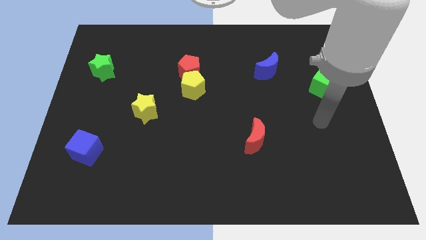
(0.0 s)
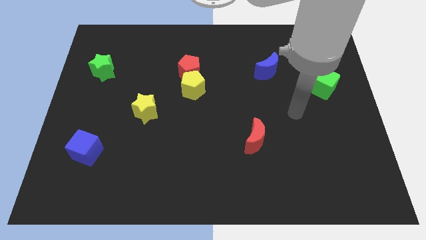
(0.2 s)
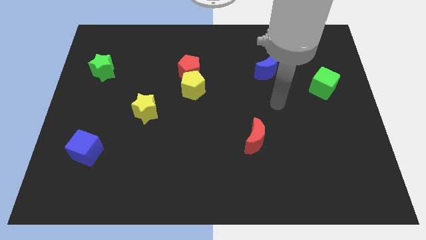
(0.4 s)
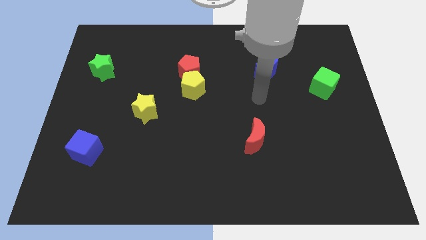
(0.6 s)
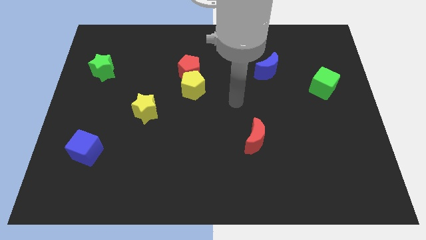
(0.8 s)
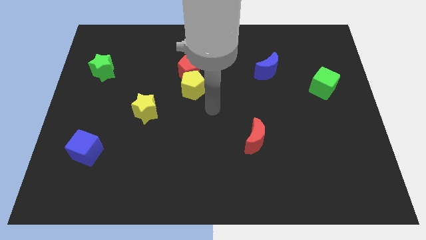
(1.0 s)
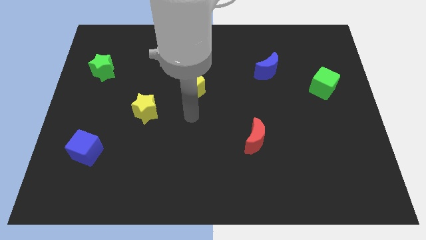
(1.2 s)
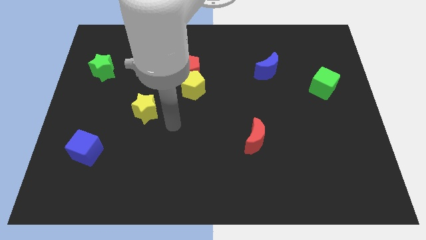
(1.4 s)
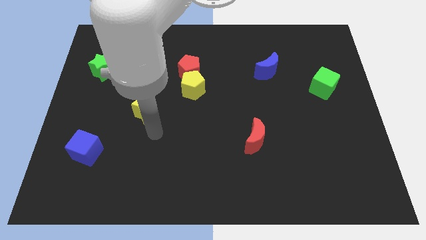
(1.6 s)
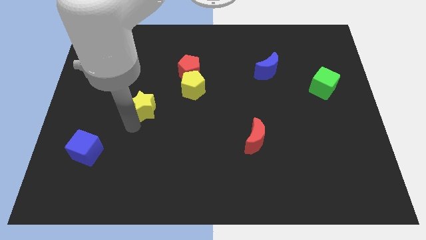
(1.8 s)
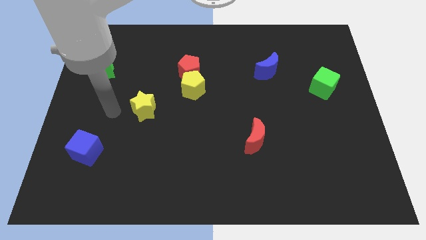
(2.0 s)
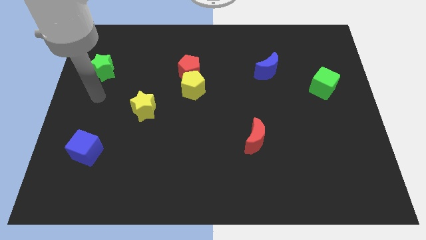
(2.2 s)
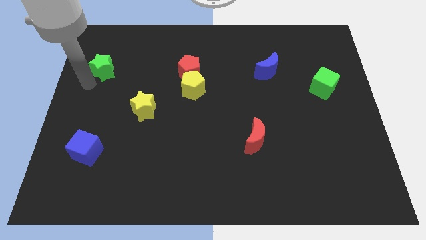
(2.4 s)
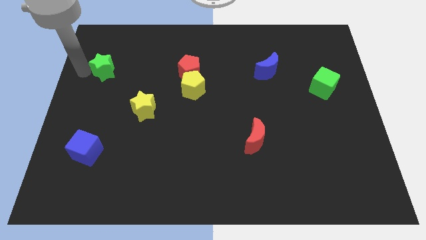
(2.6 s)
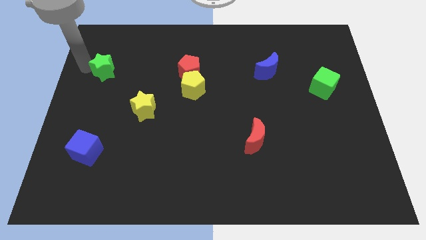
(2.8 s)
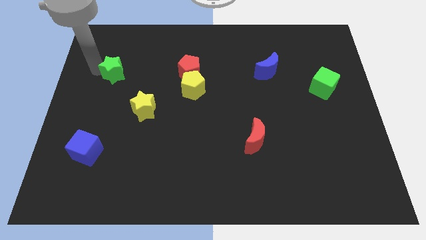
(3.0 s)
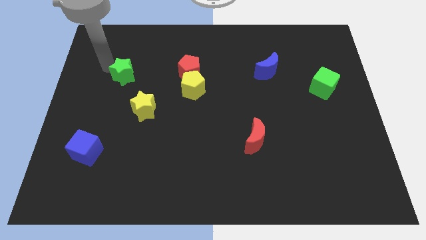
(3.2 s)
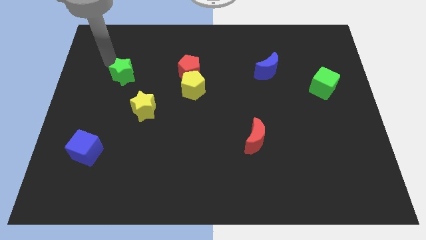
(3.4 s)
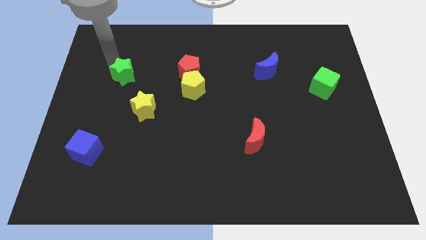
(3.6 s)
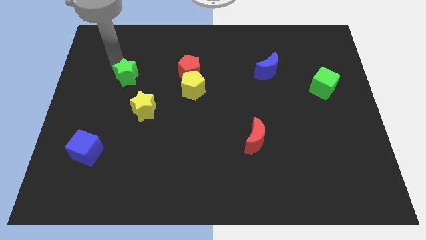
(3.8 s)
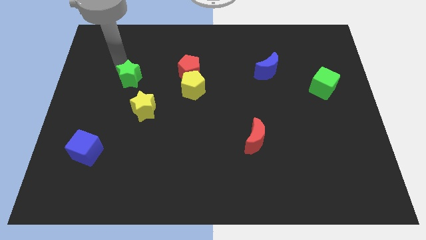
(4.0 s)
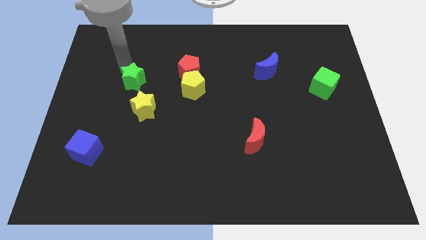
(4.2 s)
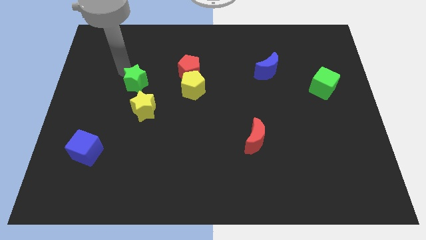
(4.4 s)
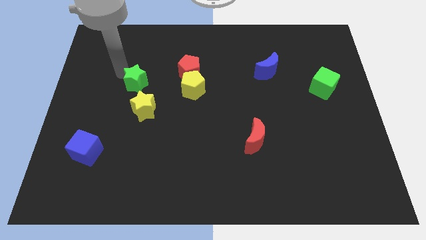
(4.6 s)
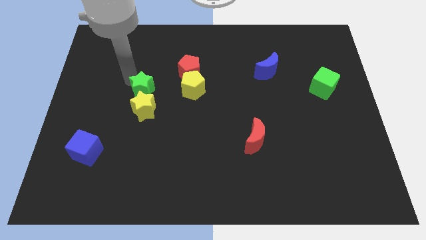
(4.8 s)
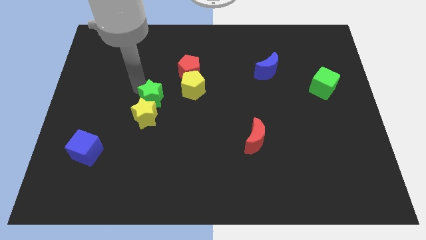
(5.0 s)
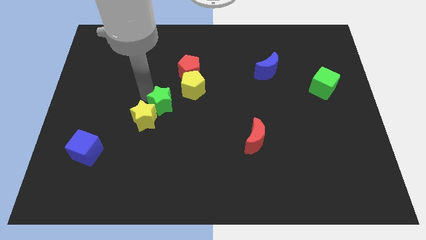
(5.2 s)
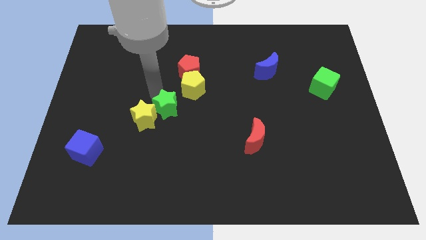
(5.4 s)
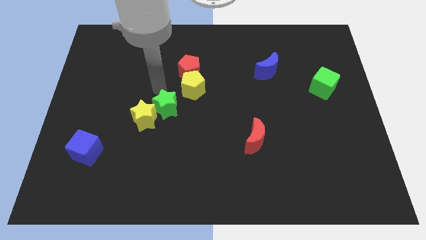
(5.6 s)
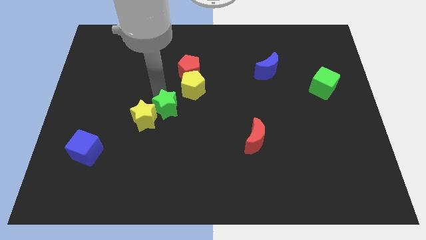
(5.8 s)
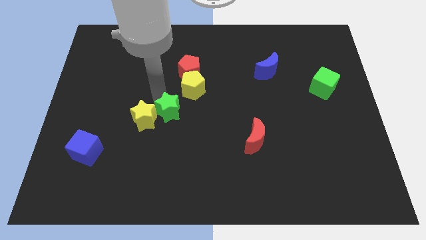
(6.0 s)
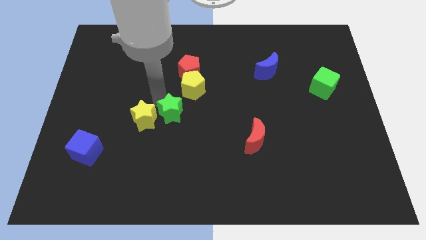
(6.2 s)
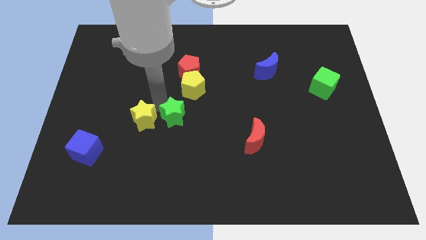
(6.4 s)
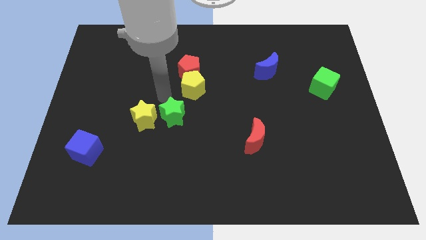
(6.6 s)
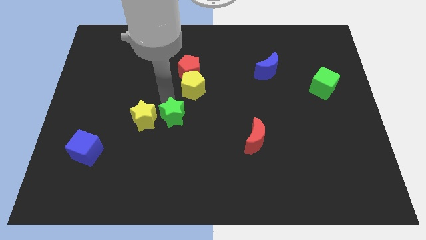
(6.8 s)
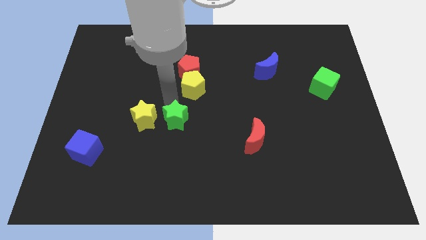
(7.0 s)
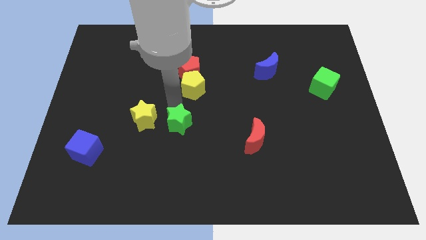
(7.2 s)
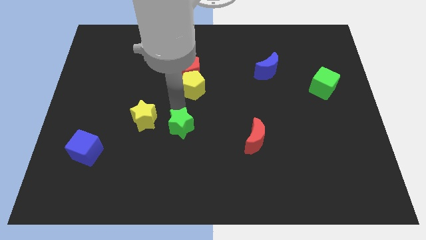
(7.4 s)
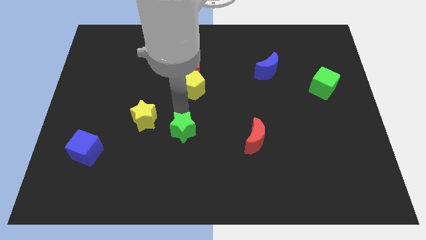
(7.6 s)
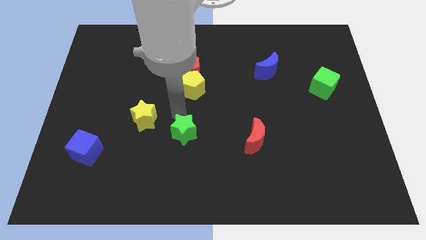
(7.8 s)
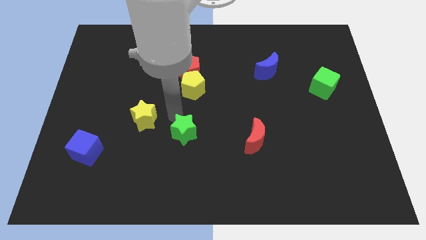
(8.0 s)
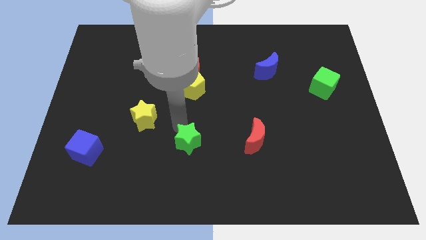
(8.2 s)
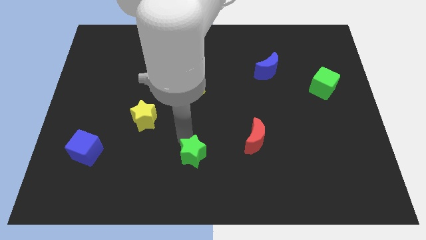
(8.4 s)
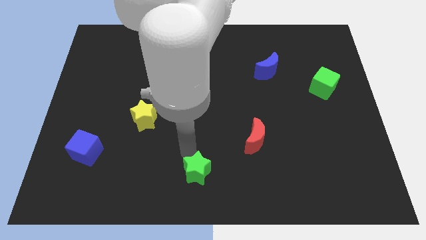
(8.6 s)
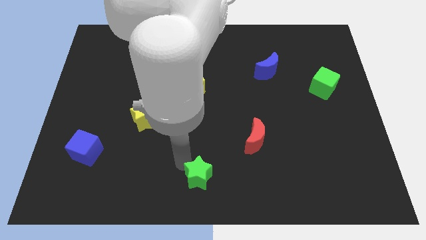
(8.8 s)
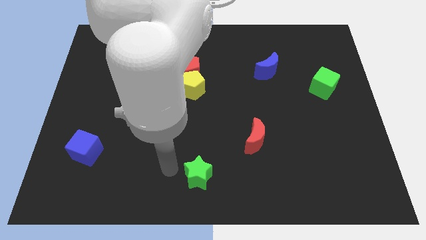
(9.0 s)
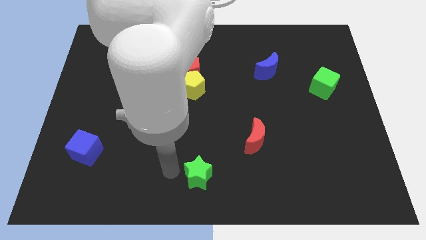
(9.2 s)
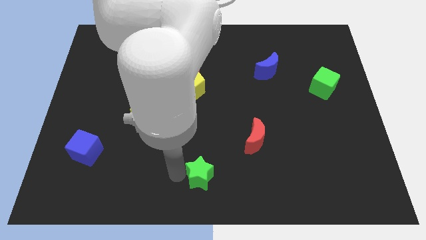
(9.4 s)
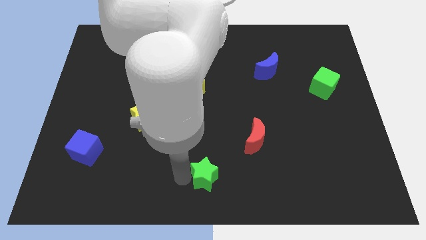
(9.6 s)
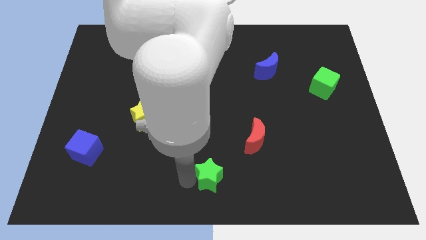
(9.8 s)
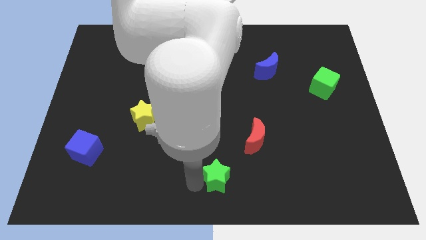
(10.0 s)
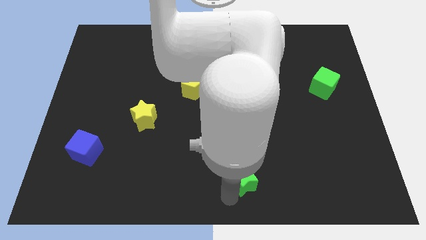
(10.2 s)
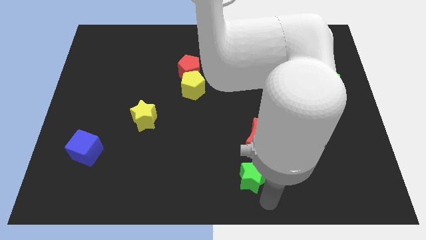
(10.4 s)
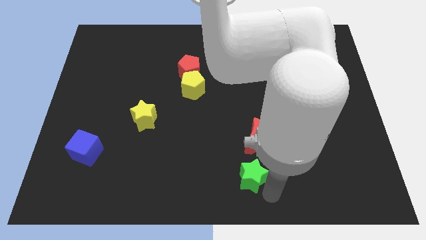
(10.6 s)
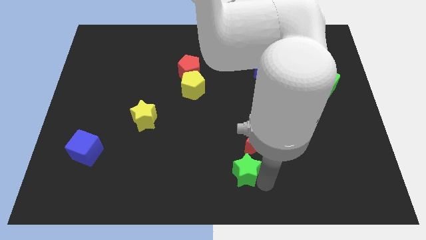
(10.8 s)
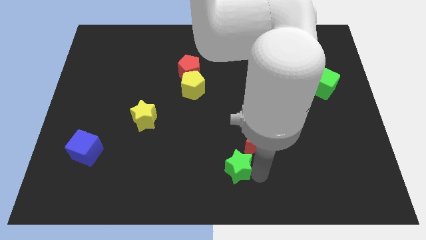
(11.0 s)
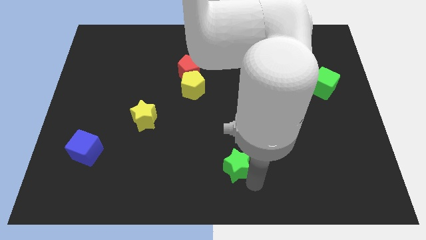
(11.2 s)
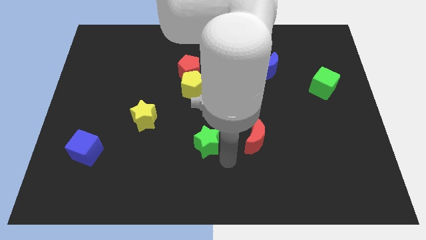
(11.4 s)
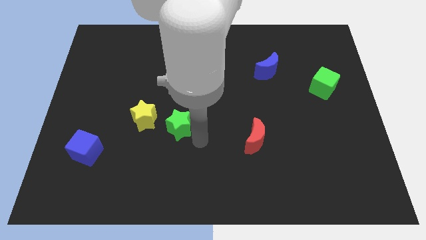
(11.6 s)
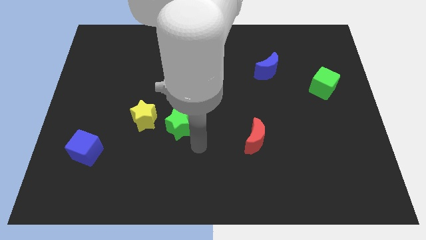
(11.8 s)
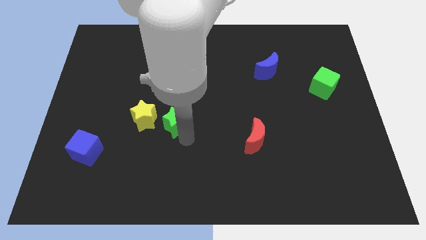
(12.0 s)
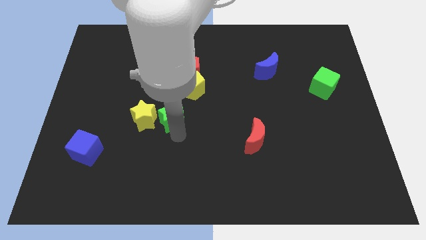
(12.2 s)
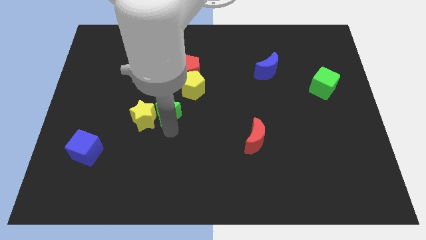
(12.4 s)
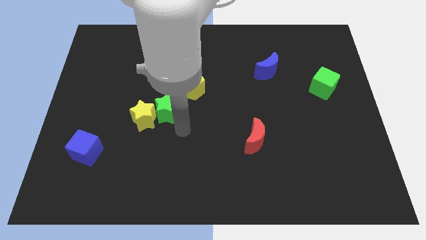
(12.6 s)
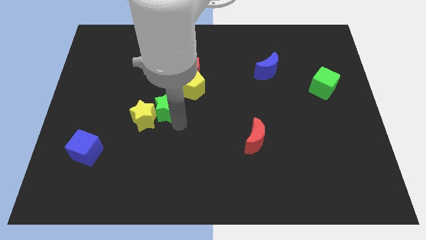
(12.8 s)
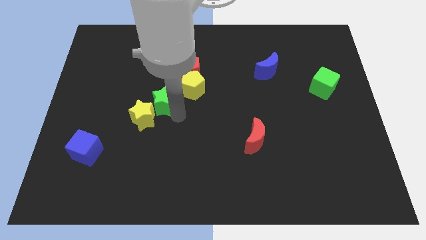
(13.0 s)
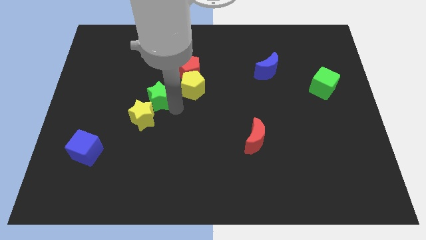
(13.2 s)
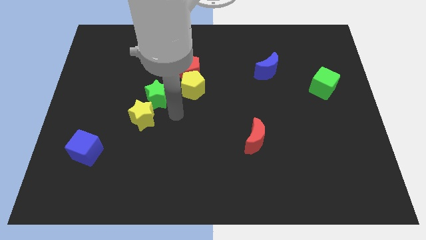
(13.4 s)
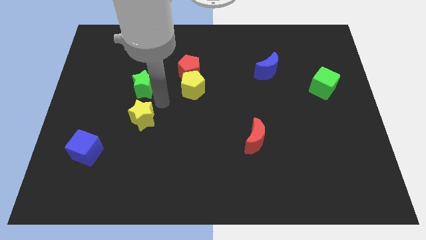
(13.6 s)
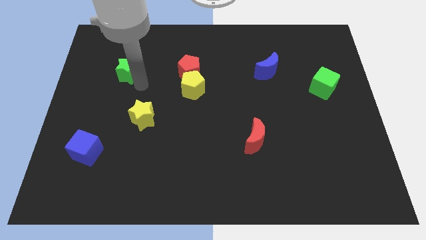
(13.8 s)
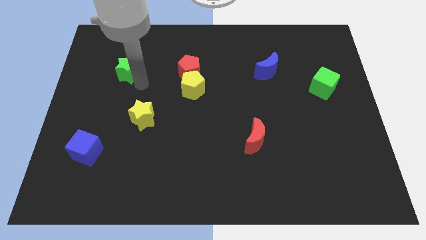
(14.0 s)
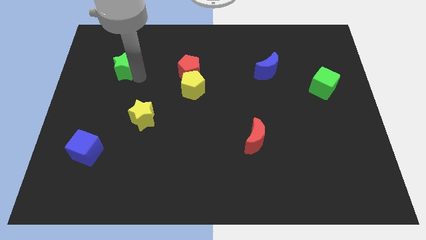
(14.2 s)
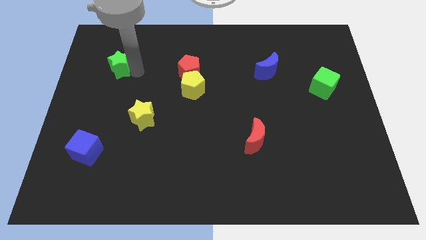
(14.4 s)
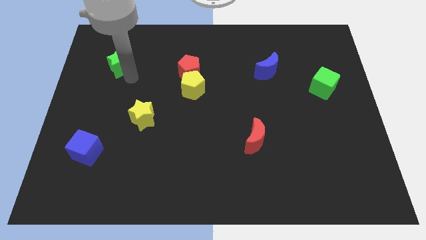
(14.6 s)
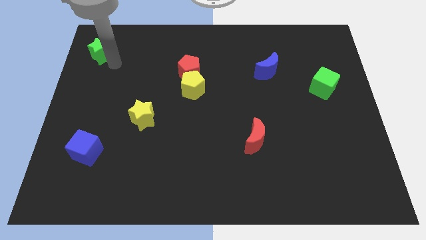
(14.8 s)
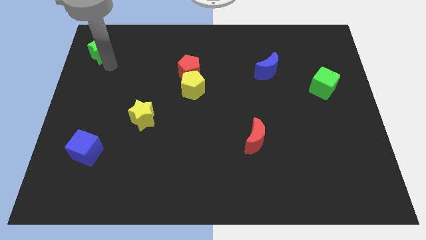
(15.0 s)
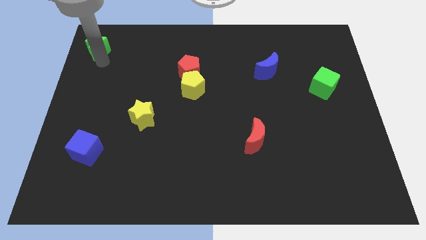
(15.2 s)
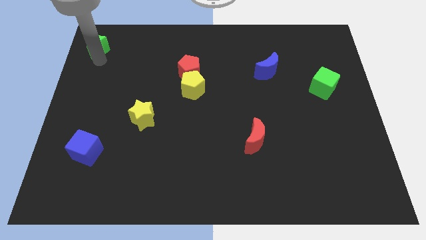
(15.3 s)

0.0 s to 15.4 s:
put the green star to the top left
